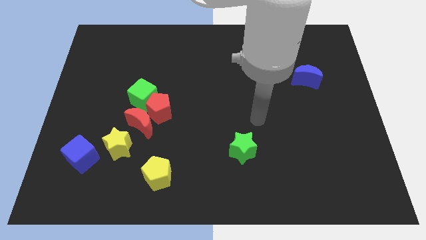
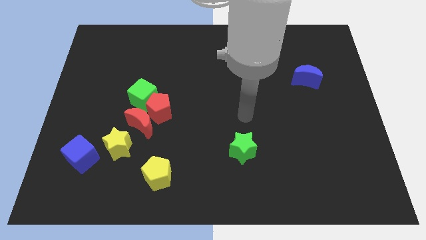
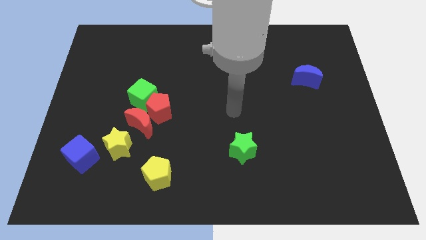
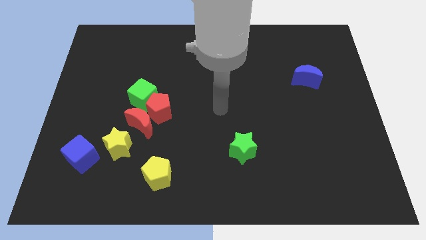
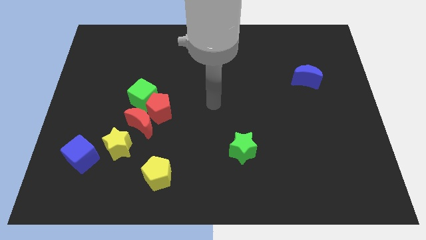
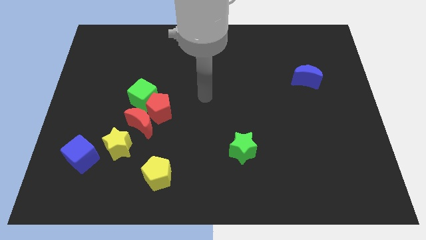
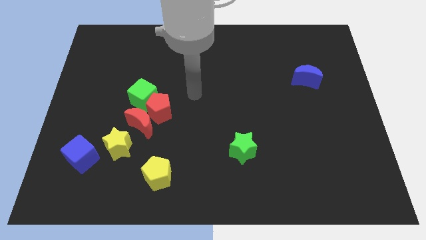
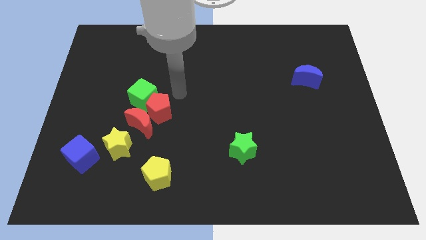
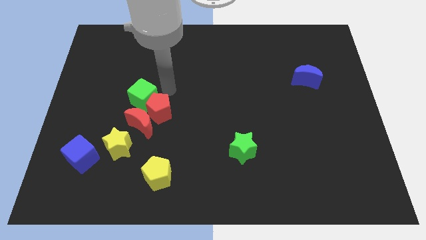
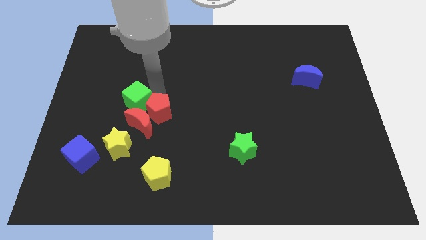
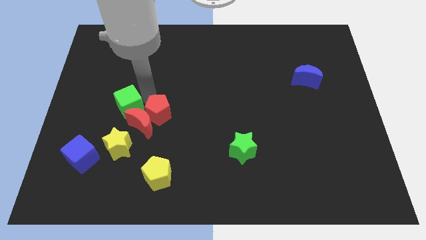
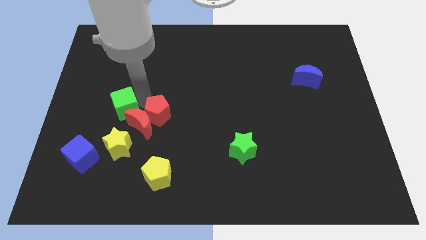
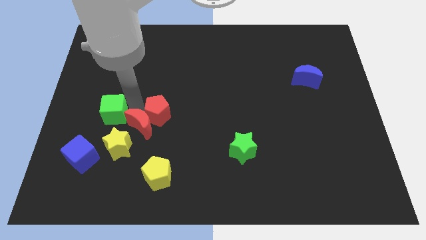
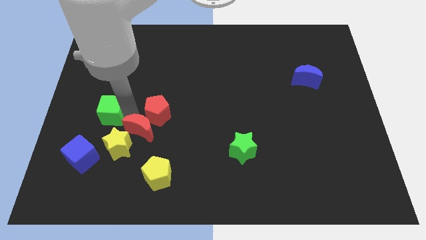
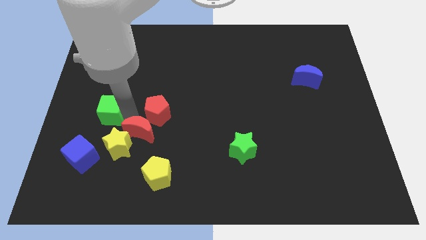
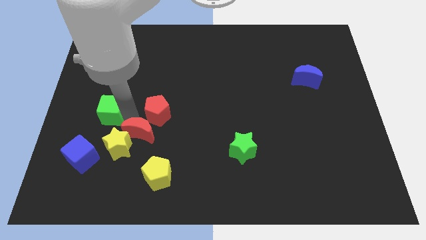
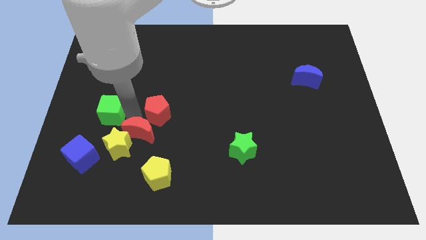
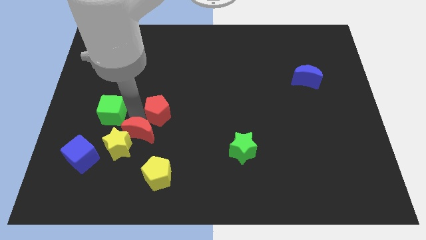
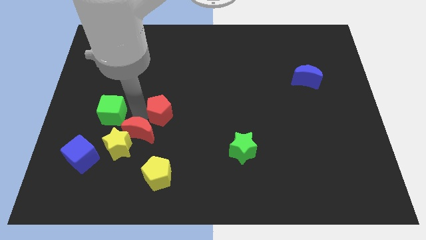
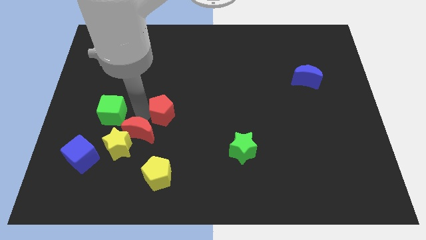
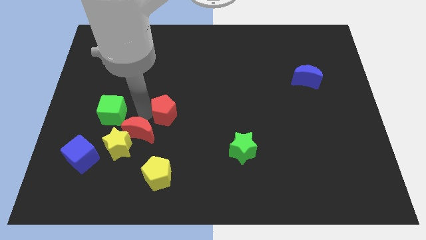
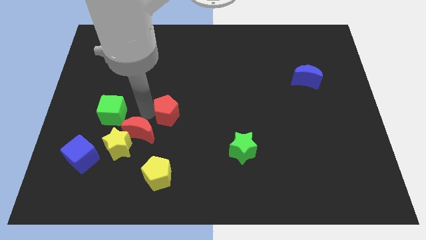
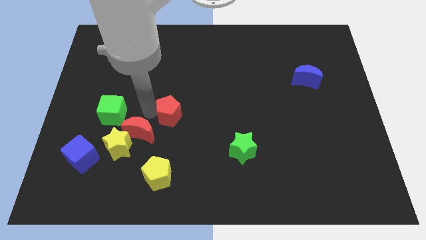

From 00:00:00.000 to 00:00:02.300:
separate the red pentagon from the red moon and green cube

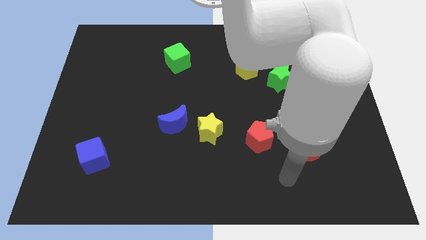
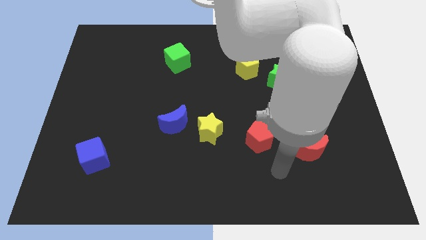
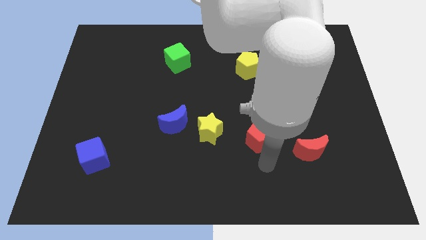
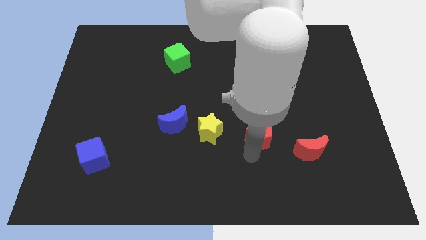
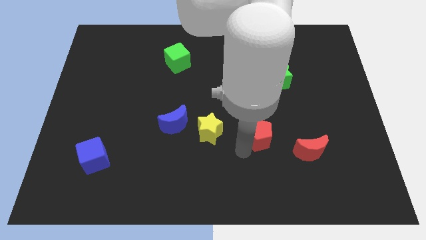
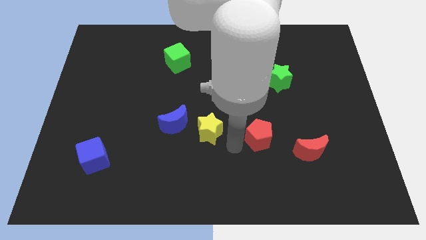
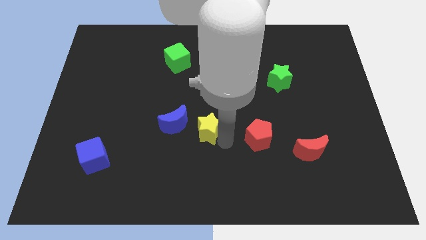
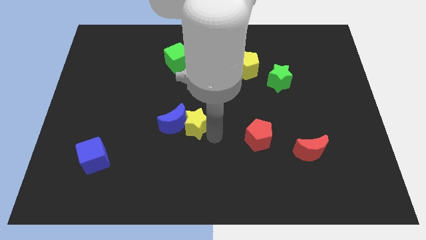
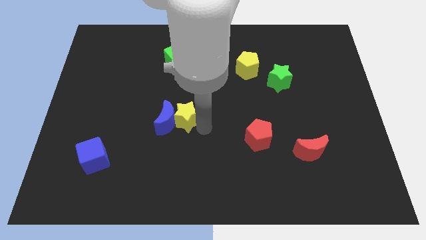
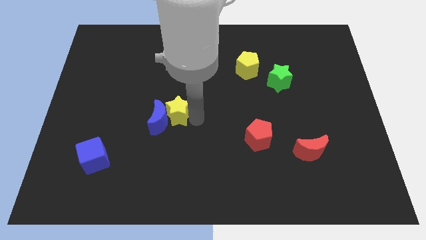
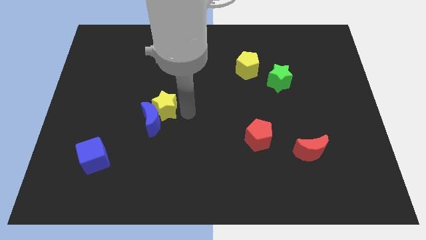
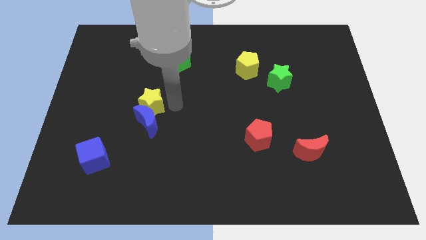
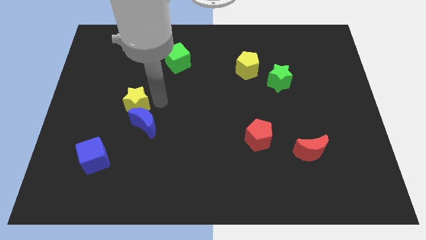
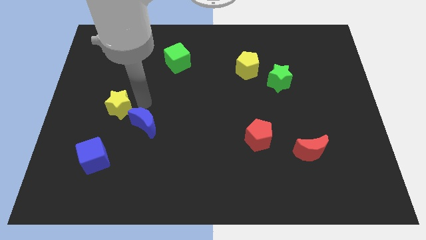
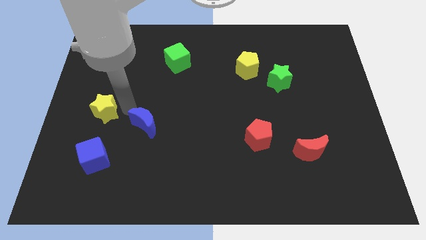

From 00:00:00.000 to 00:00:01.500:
pull the blue moon apart from the yellow star

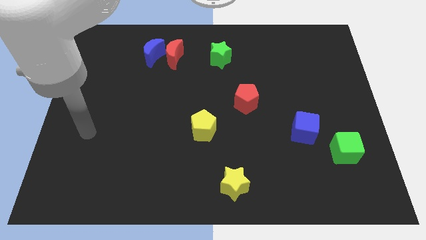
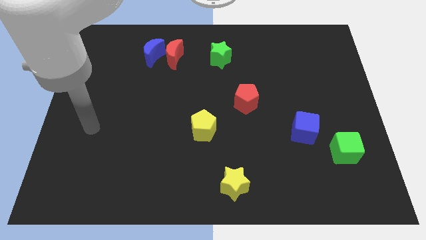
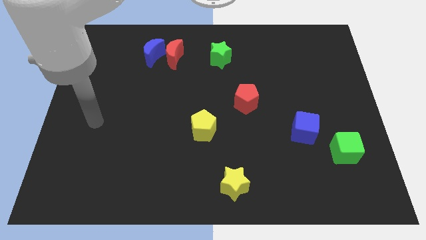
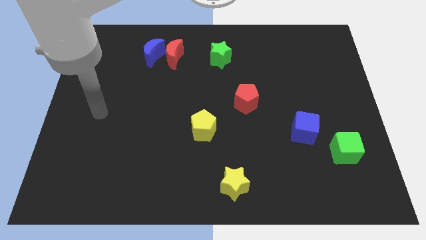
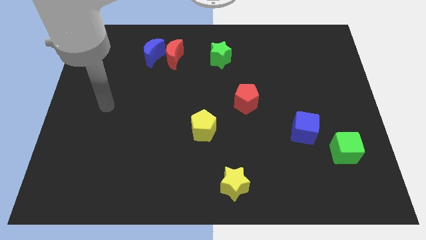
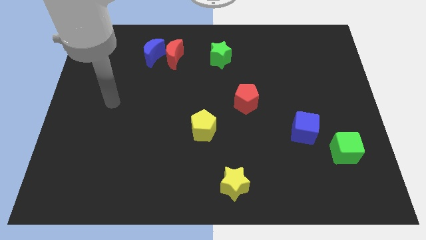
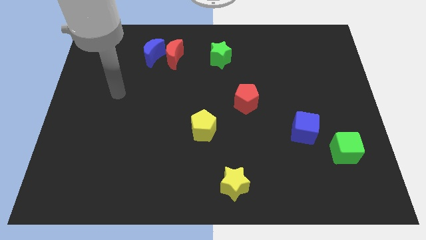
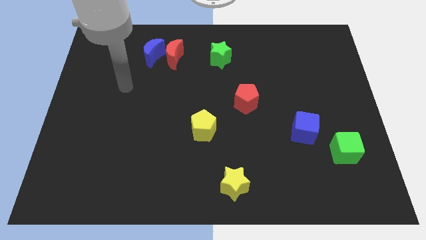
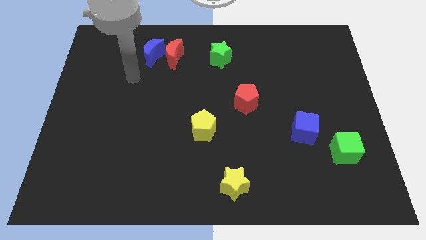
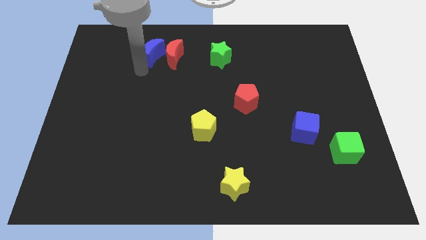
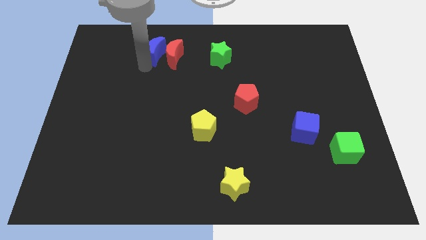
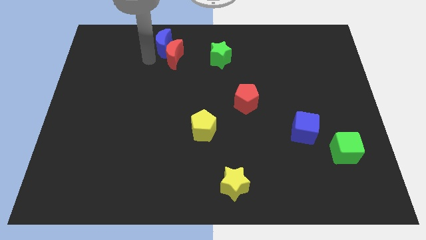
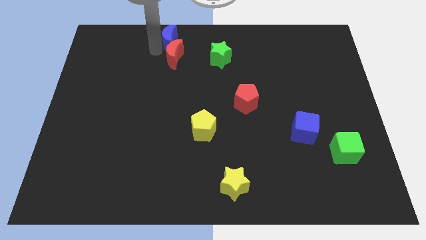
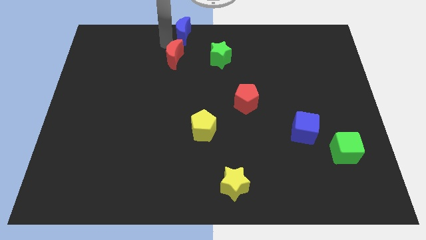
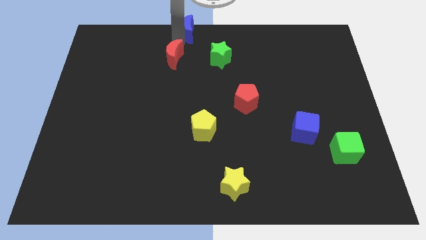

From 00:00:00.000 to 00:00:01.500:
move the red moon away from the blue moon

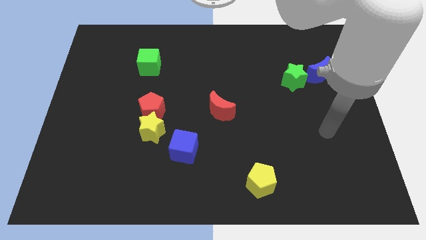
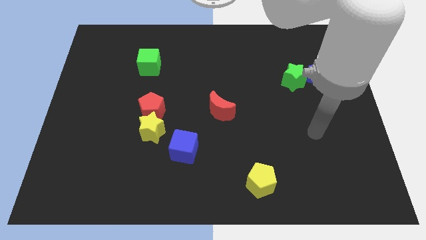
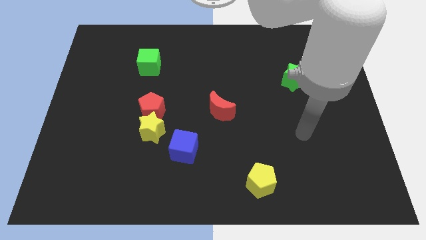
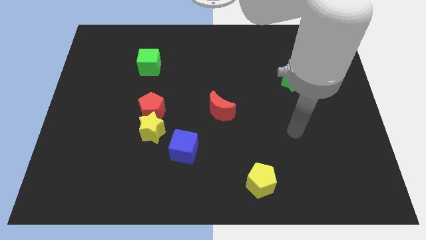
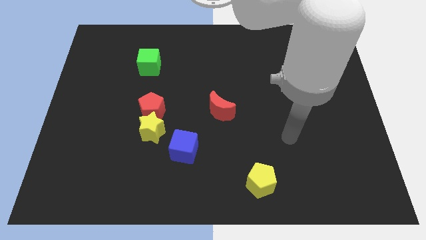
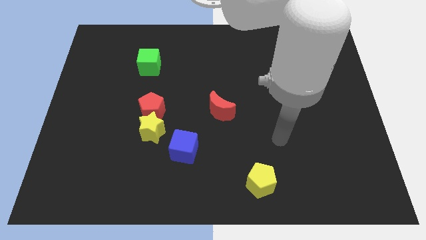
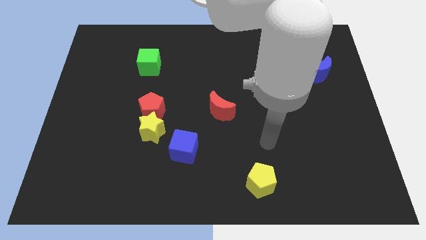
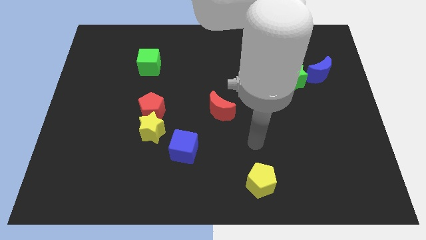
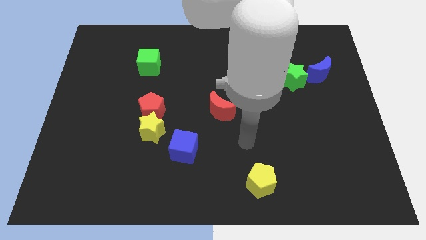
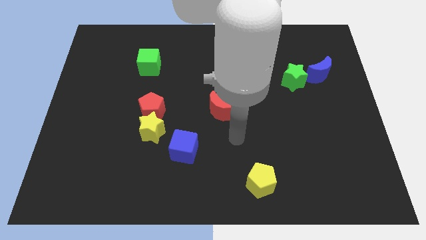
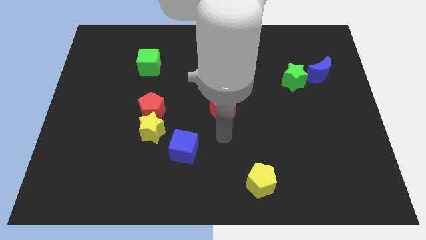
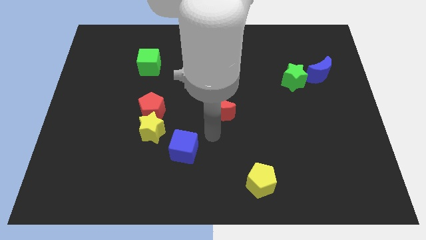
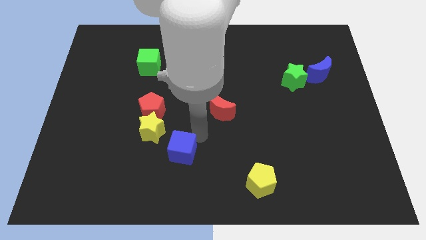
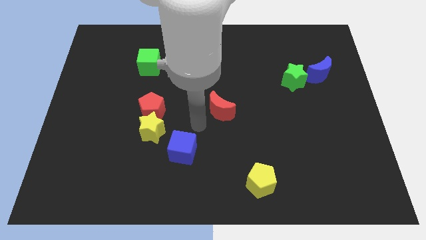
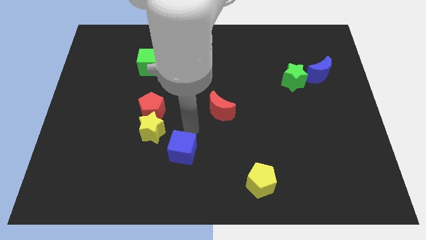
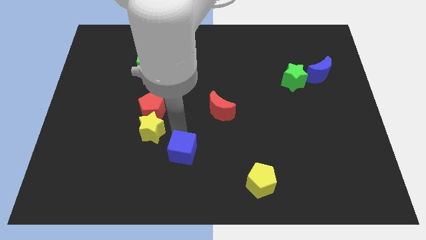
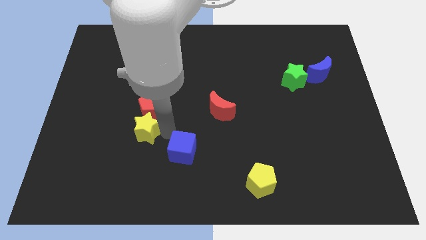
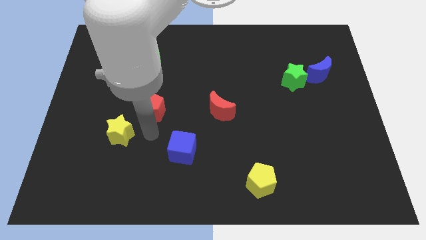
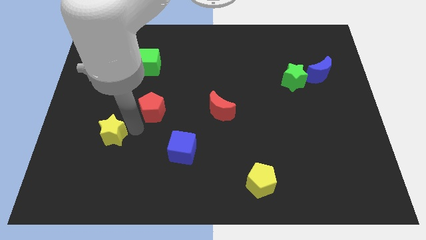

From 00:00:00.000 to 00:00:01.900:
separate the red pentagon from the yellow star

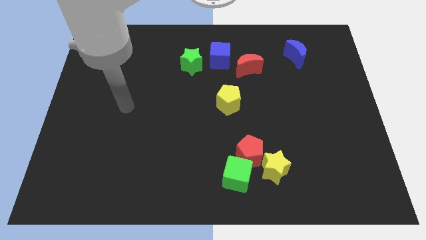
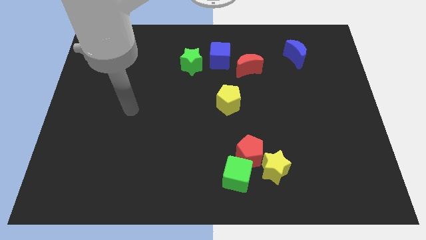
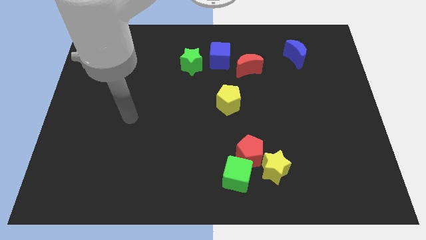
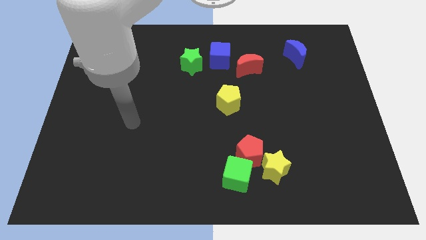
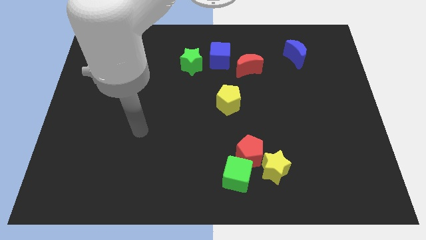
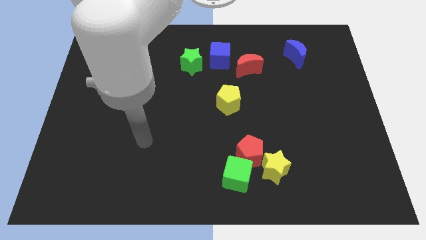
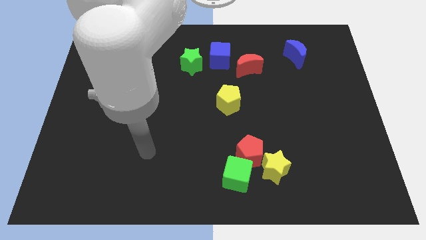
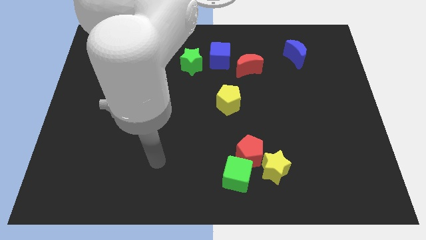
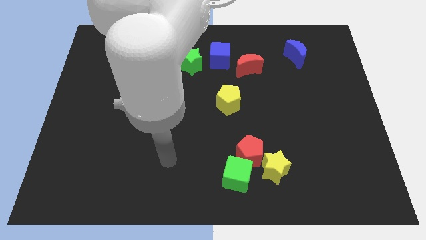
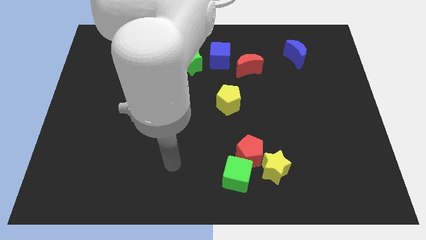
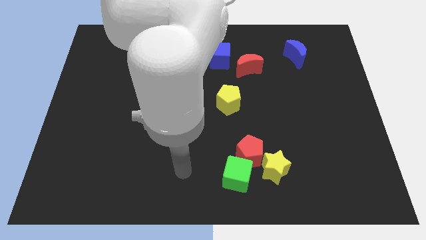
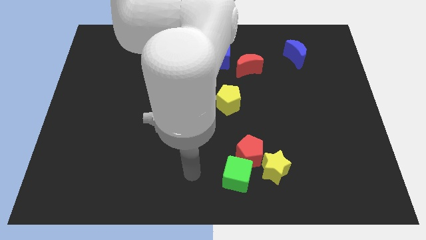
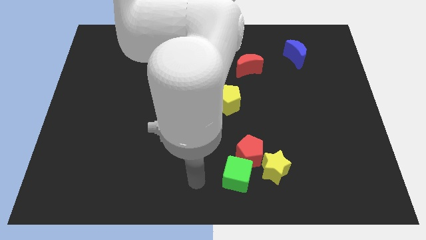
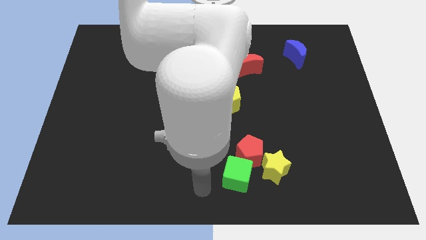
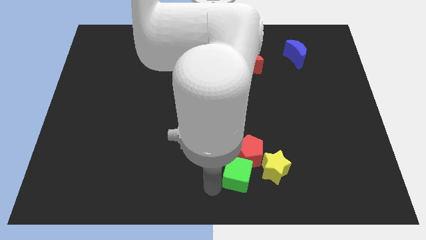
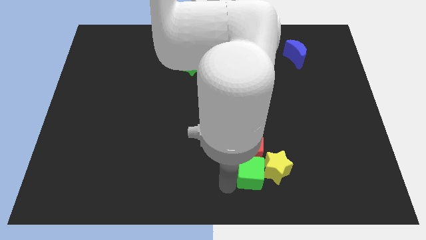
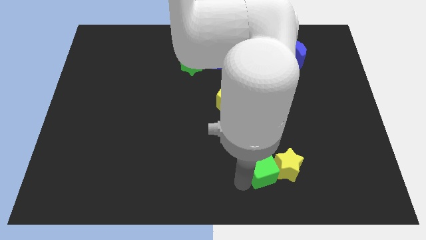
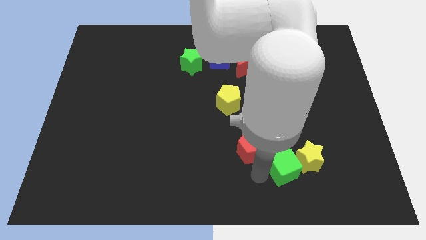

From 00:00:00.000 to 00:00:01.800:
separate the red pentagon from the green cube and yellow star

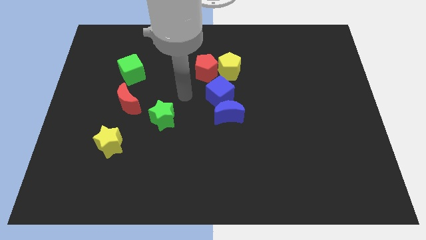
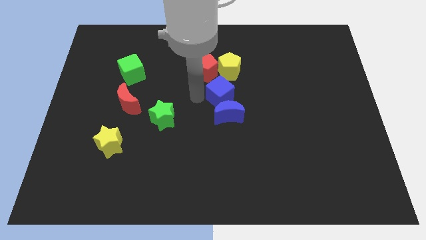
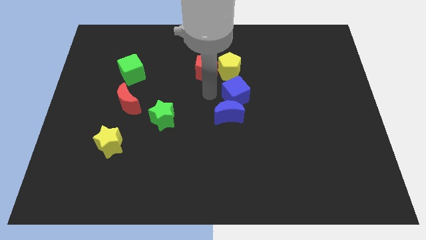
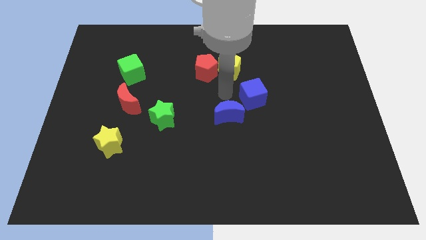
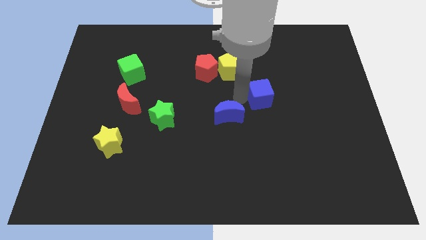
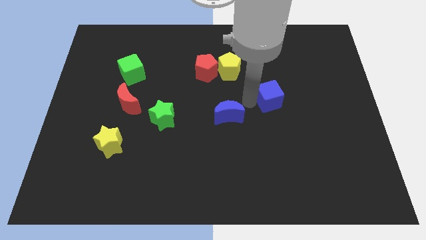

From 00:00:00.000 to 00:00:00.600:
separate the blue moon from the blue cube
